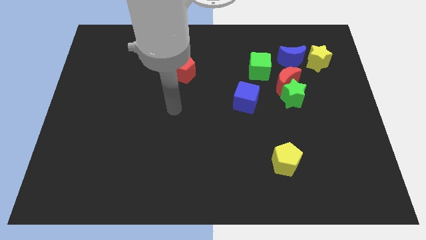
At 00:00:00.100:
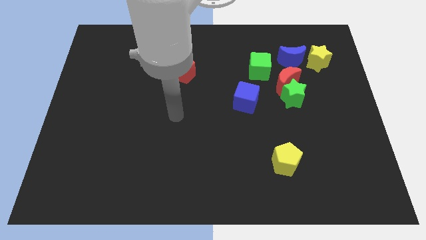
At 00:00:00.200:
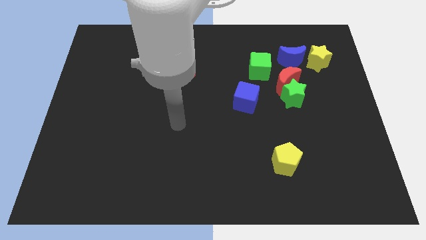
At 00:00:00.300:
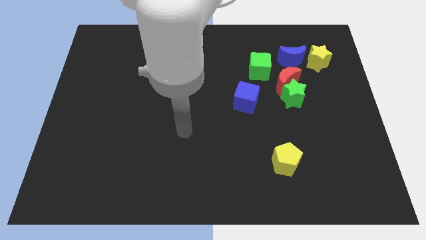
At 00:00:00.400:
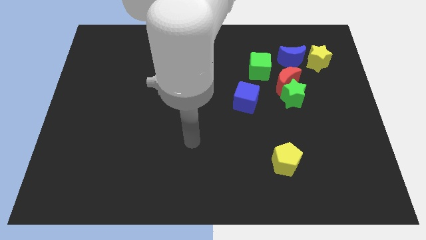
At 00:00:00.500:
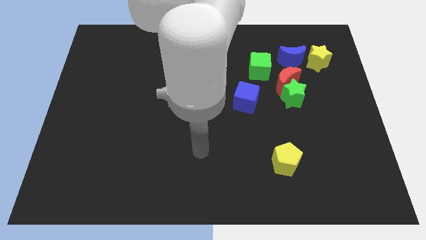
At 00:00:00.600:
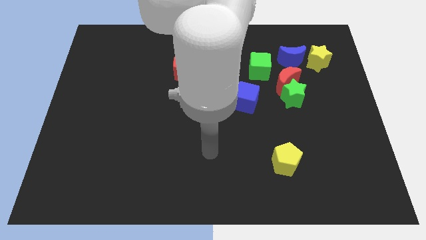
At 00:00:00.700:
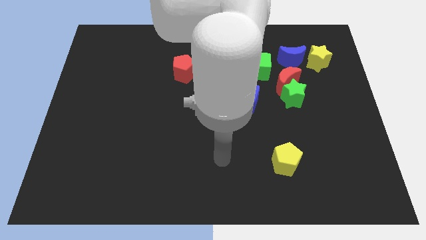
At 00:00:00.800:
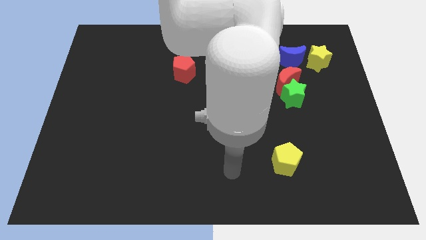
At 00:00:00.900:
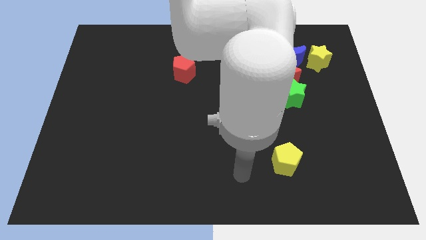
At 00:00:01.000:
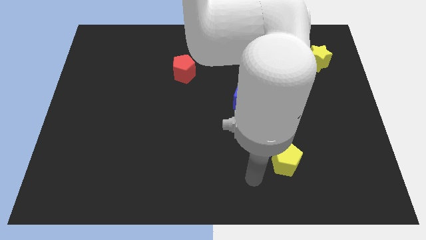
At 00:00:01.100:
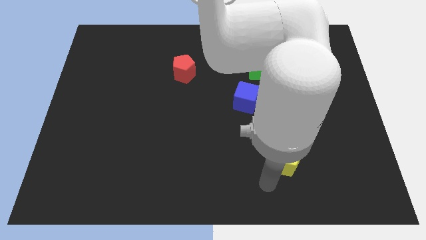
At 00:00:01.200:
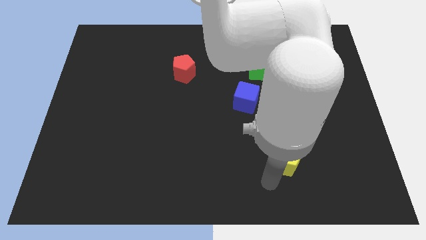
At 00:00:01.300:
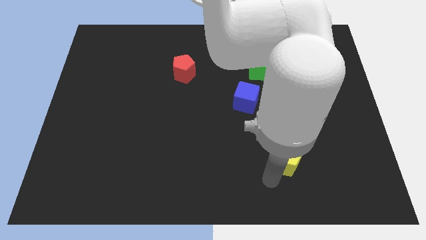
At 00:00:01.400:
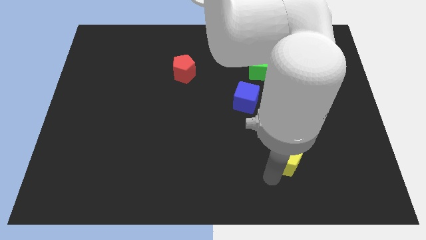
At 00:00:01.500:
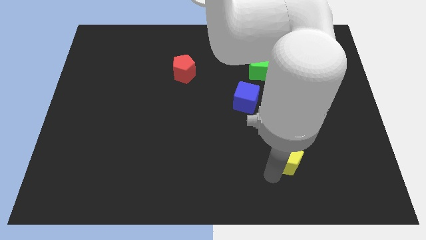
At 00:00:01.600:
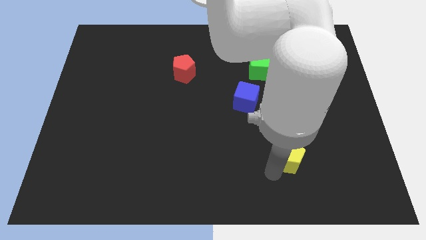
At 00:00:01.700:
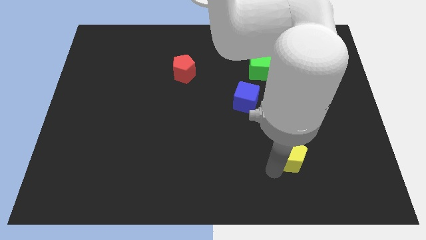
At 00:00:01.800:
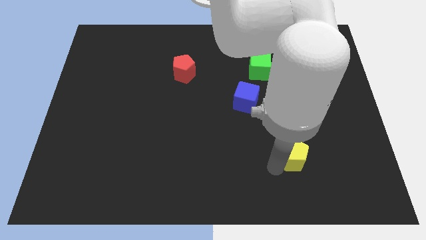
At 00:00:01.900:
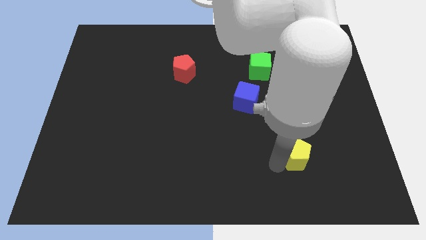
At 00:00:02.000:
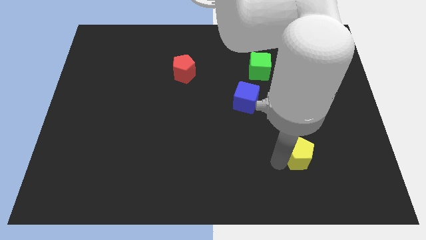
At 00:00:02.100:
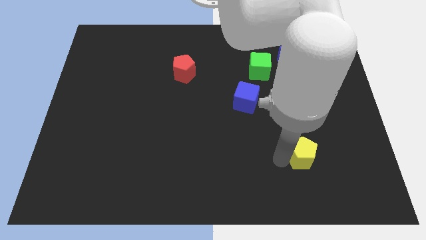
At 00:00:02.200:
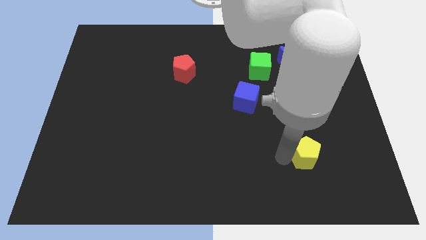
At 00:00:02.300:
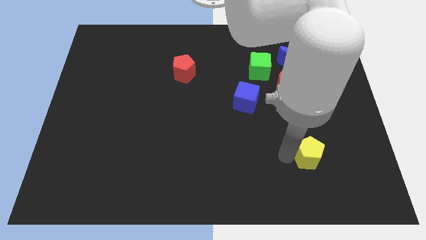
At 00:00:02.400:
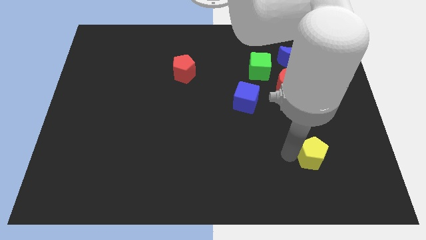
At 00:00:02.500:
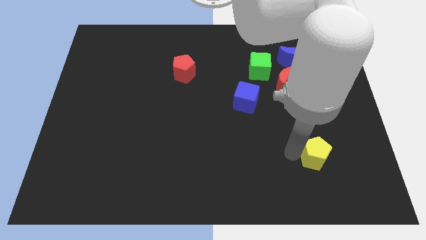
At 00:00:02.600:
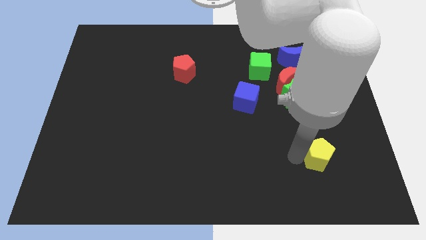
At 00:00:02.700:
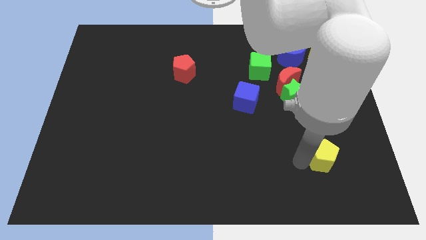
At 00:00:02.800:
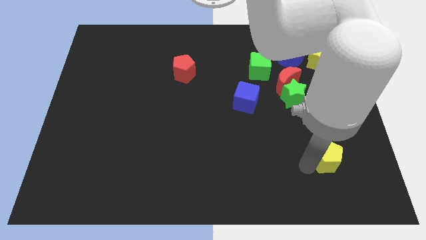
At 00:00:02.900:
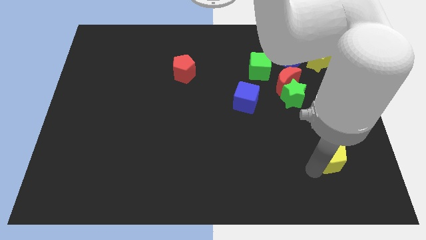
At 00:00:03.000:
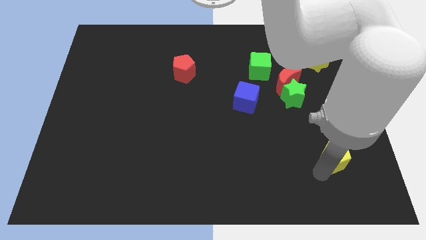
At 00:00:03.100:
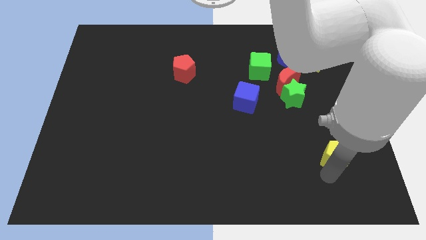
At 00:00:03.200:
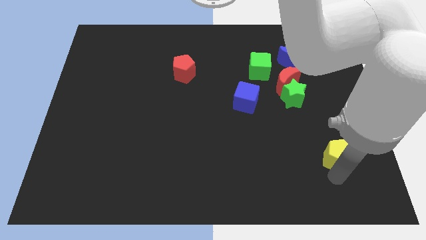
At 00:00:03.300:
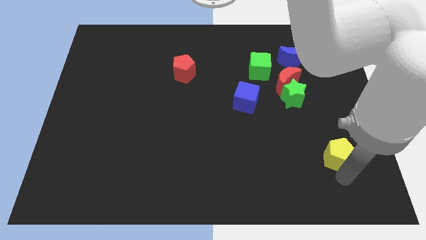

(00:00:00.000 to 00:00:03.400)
push the yellow pentagon diagonally upwards and to the right a little

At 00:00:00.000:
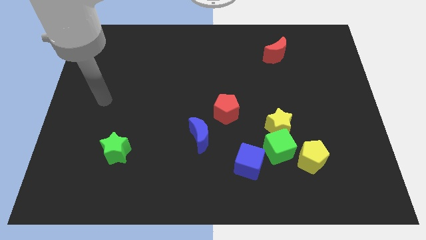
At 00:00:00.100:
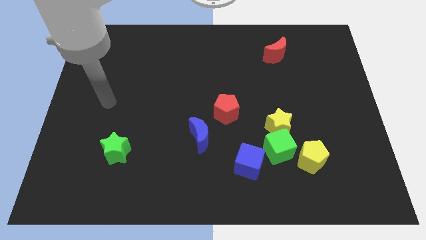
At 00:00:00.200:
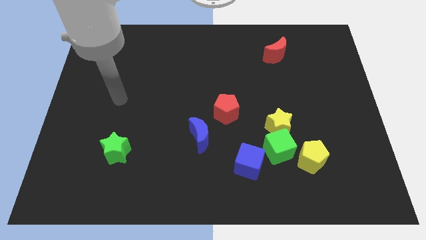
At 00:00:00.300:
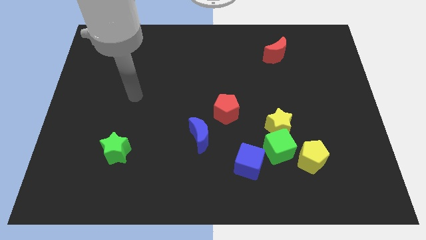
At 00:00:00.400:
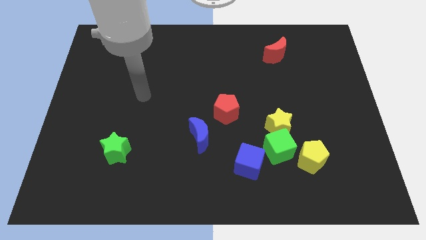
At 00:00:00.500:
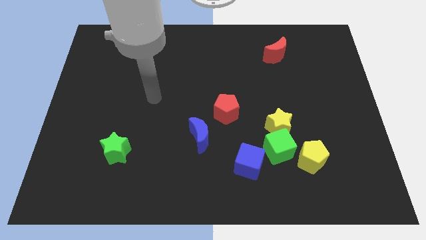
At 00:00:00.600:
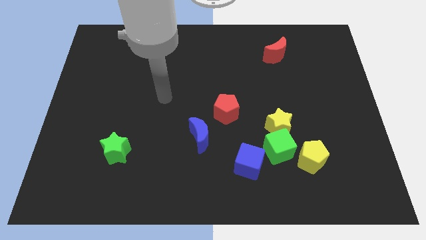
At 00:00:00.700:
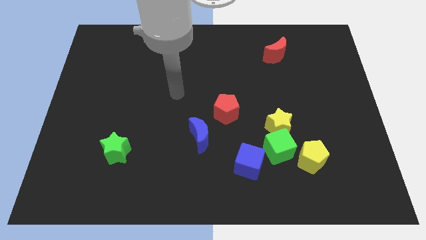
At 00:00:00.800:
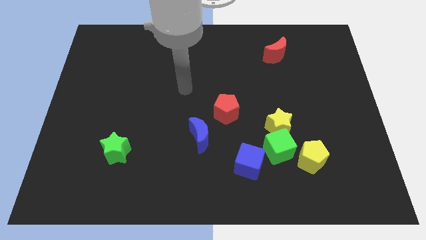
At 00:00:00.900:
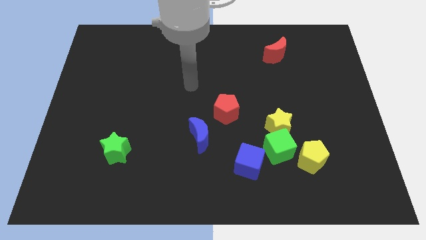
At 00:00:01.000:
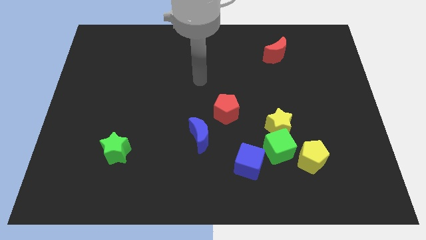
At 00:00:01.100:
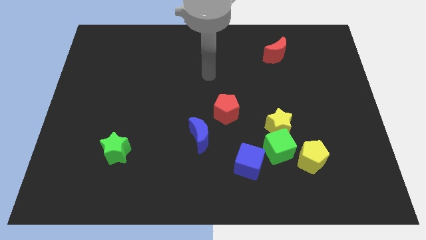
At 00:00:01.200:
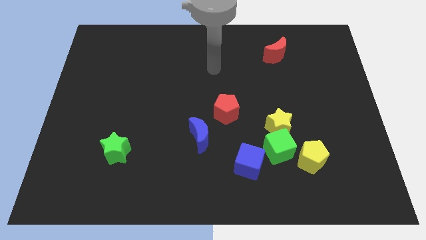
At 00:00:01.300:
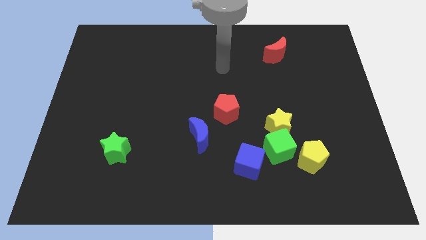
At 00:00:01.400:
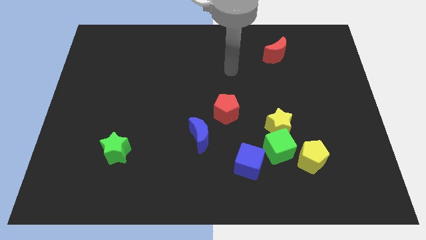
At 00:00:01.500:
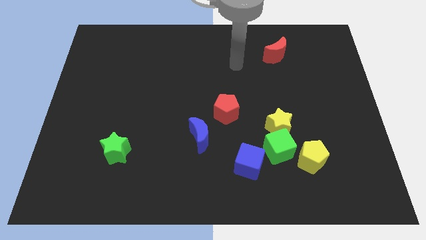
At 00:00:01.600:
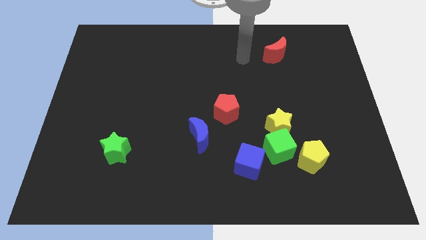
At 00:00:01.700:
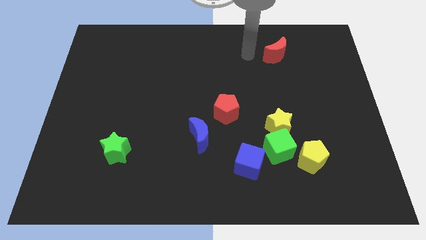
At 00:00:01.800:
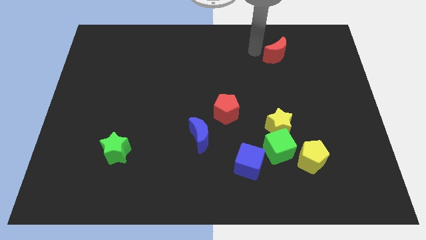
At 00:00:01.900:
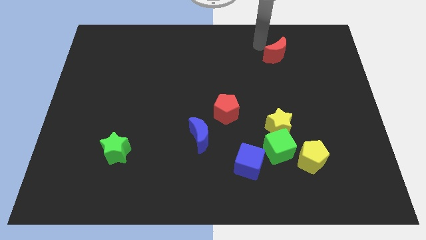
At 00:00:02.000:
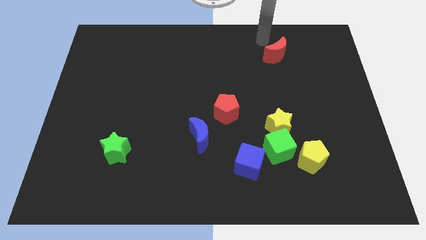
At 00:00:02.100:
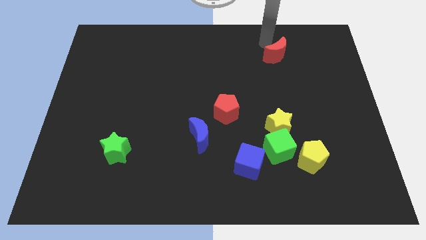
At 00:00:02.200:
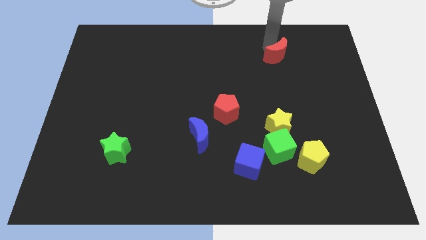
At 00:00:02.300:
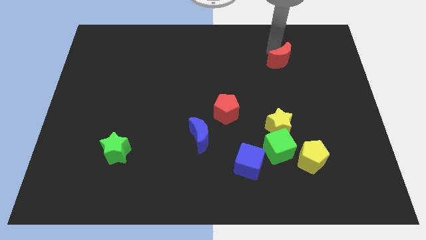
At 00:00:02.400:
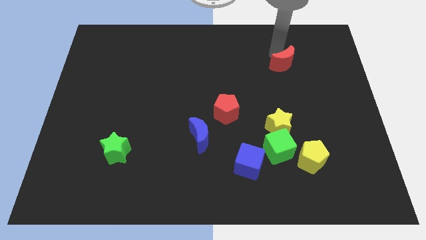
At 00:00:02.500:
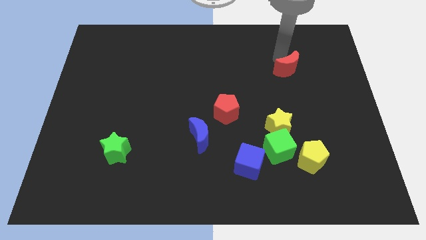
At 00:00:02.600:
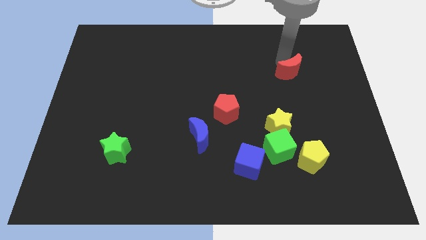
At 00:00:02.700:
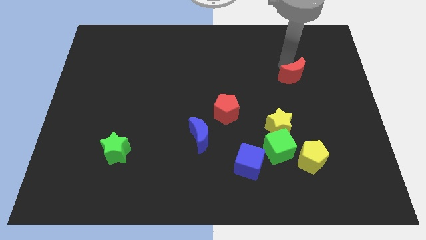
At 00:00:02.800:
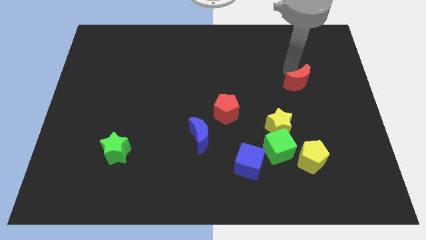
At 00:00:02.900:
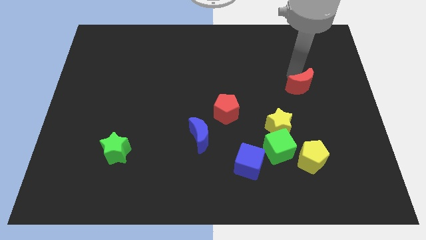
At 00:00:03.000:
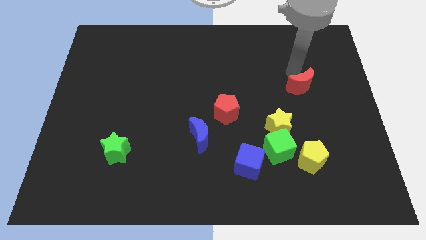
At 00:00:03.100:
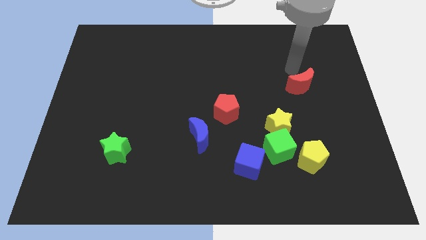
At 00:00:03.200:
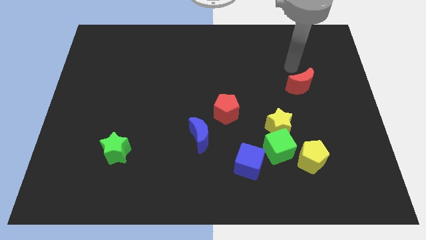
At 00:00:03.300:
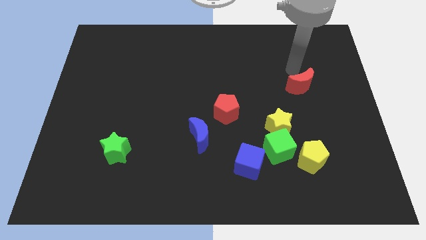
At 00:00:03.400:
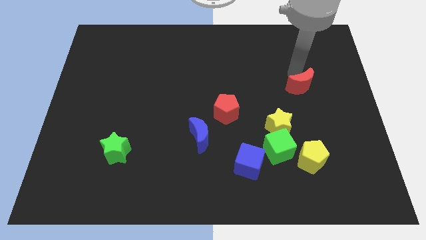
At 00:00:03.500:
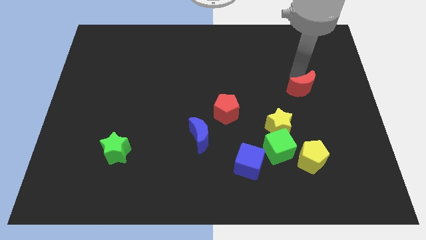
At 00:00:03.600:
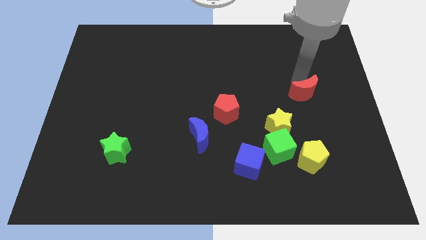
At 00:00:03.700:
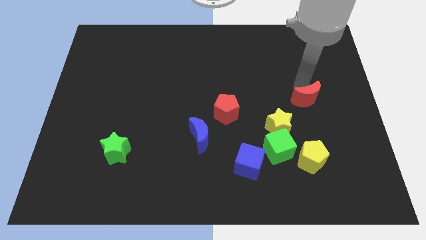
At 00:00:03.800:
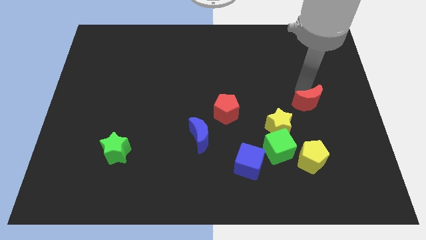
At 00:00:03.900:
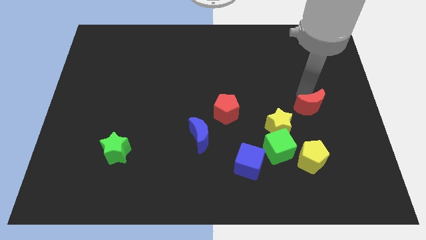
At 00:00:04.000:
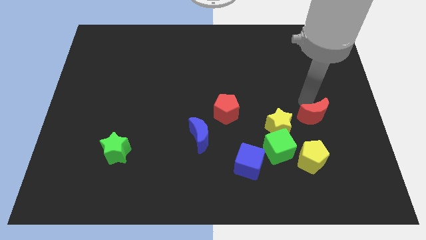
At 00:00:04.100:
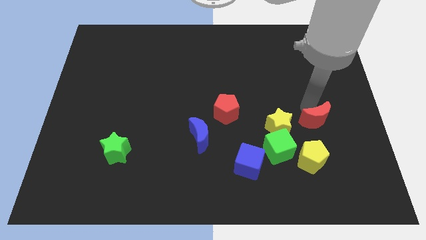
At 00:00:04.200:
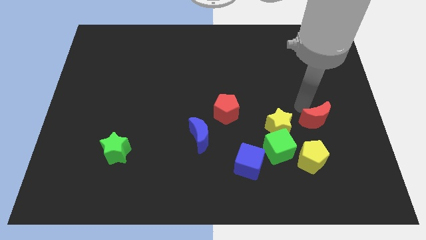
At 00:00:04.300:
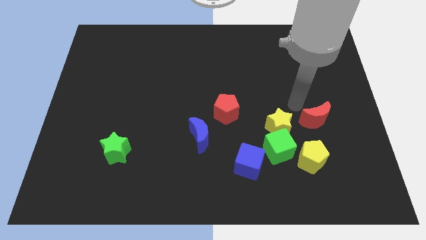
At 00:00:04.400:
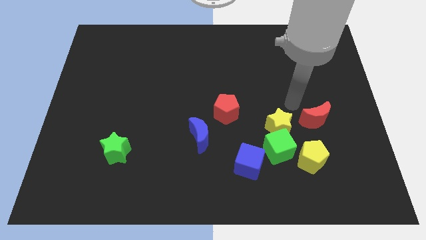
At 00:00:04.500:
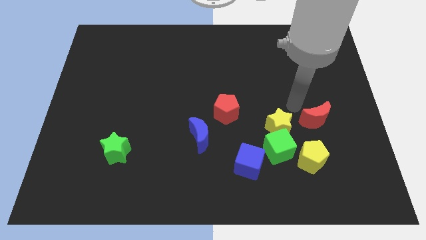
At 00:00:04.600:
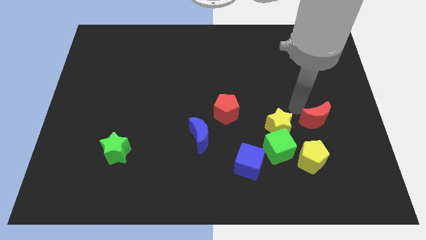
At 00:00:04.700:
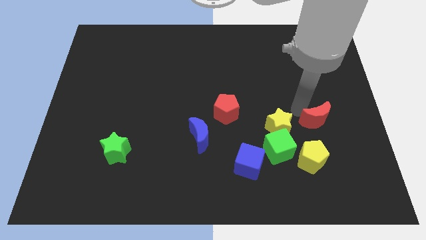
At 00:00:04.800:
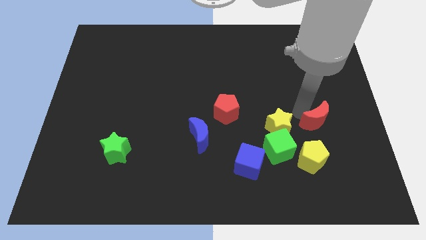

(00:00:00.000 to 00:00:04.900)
push the red moon downwards
